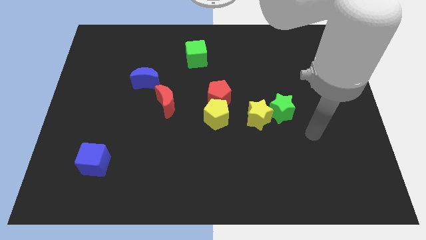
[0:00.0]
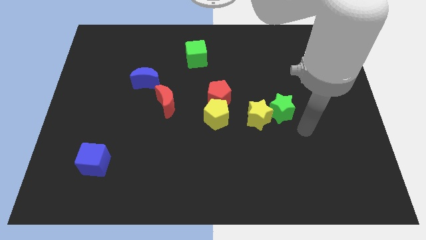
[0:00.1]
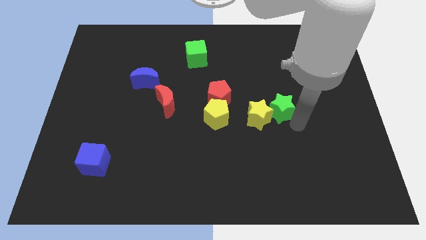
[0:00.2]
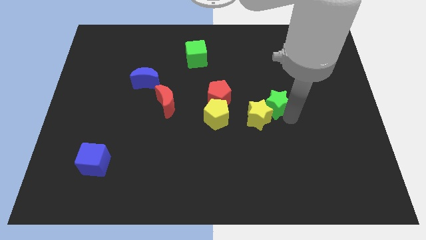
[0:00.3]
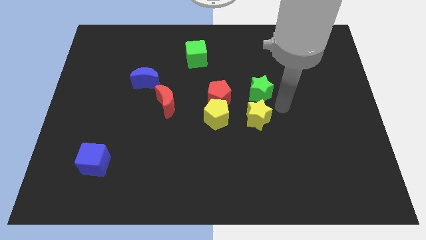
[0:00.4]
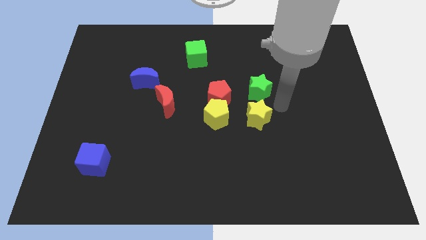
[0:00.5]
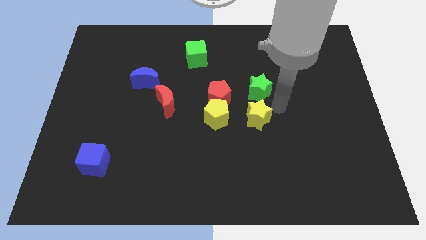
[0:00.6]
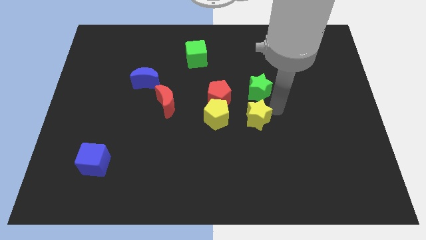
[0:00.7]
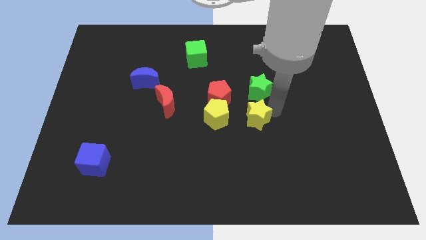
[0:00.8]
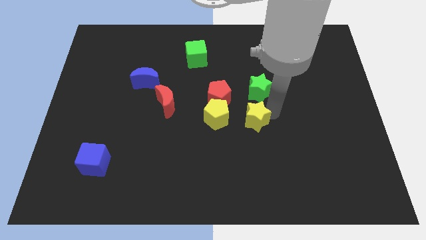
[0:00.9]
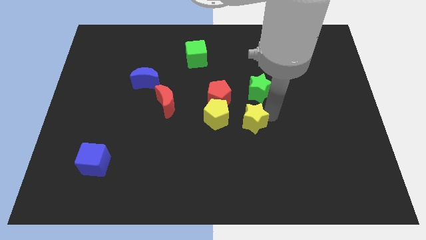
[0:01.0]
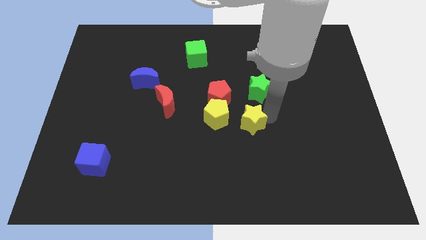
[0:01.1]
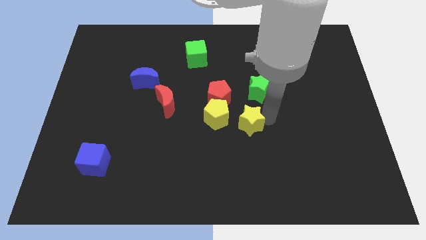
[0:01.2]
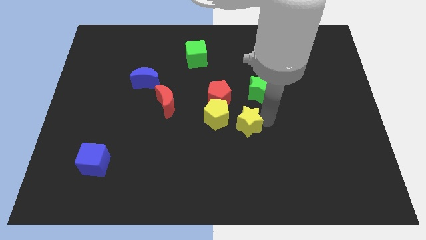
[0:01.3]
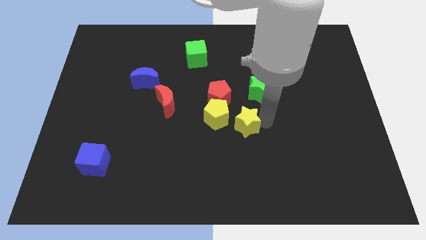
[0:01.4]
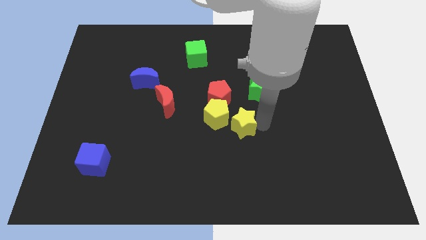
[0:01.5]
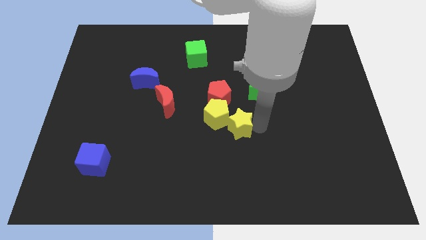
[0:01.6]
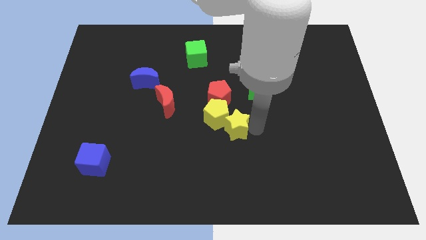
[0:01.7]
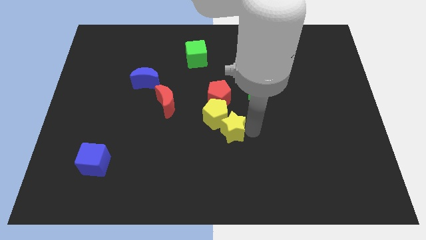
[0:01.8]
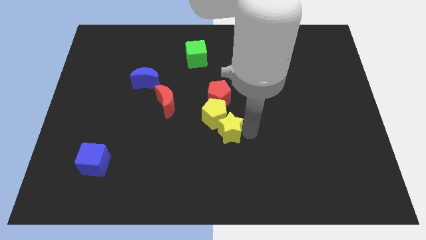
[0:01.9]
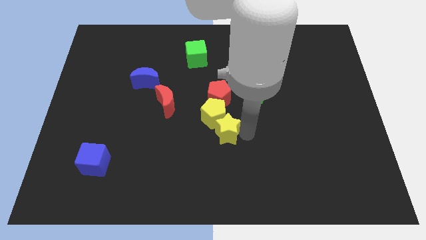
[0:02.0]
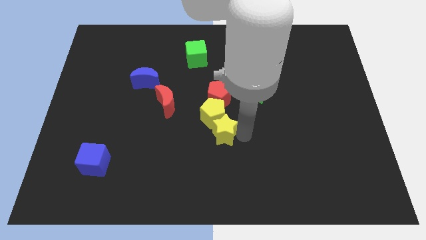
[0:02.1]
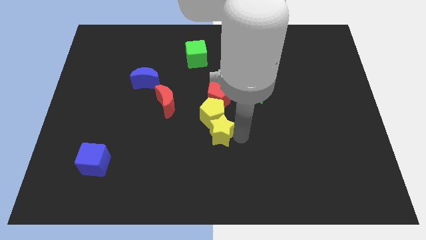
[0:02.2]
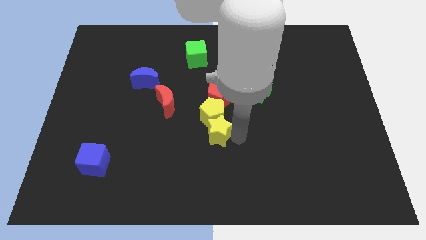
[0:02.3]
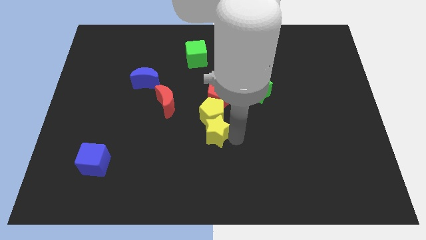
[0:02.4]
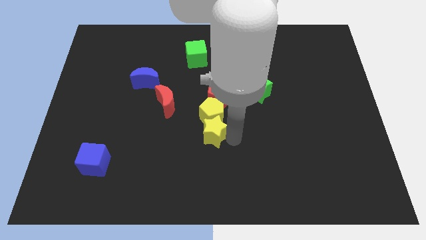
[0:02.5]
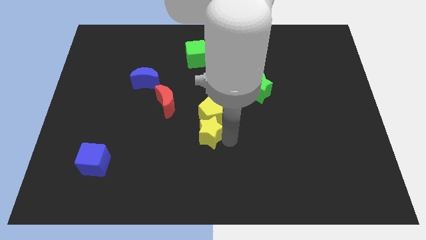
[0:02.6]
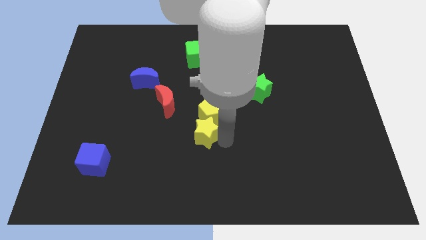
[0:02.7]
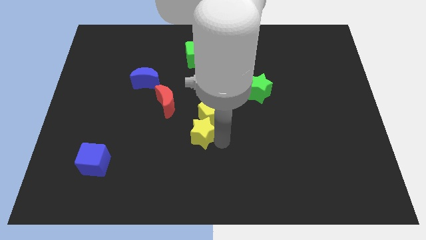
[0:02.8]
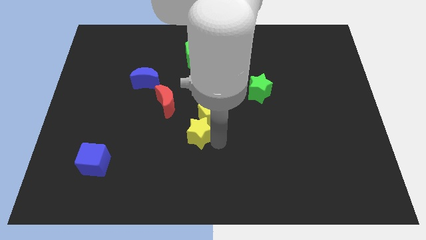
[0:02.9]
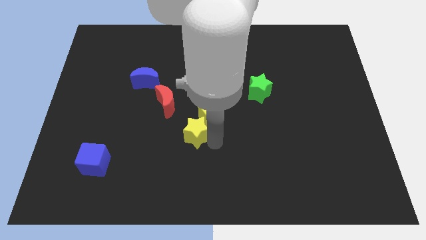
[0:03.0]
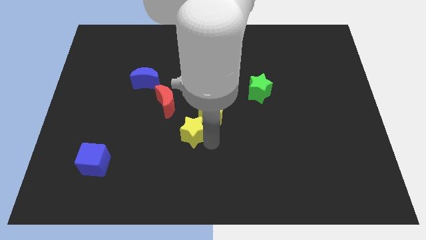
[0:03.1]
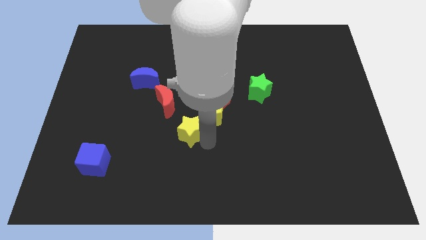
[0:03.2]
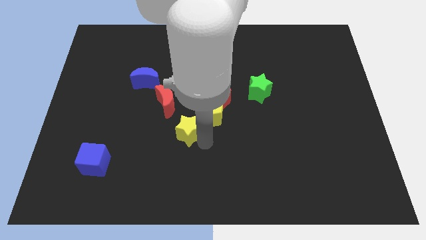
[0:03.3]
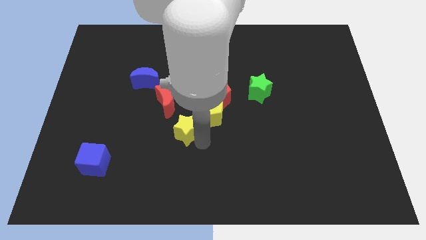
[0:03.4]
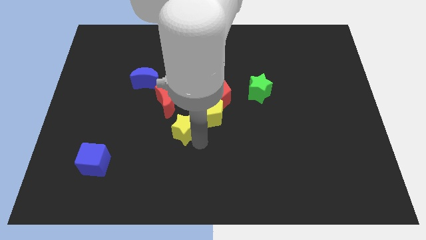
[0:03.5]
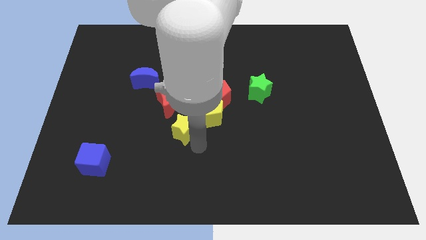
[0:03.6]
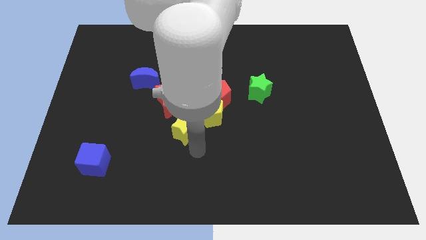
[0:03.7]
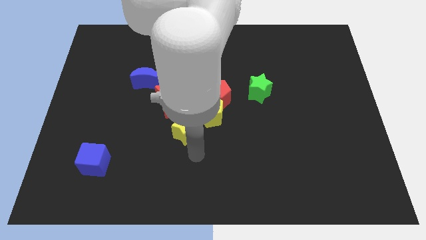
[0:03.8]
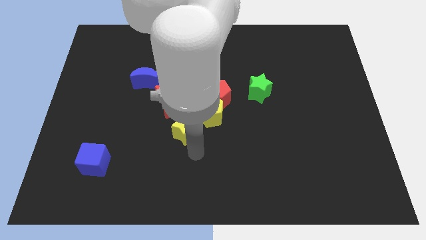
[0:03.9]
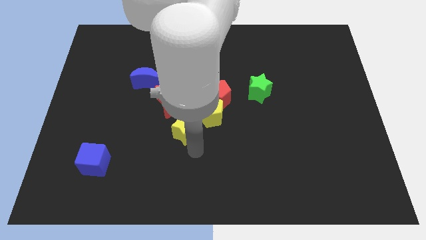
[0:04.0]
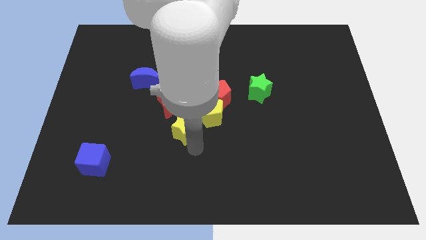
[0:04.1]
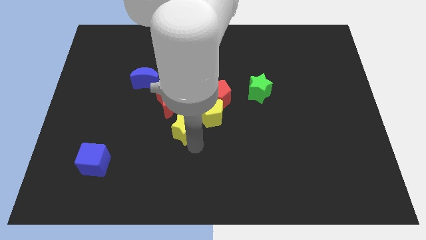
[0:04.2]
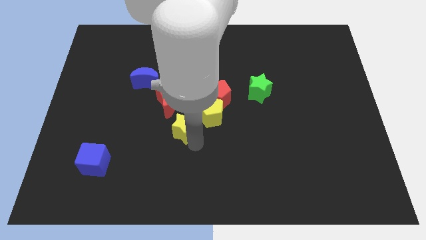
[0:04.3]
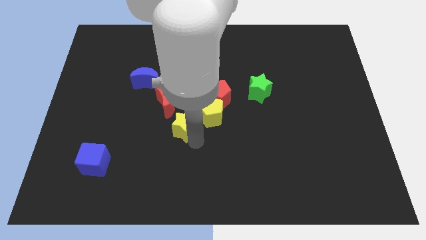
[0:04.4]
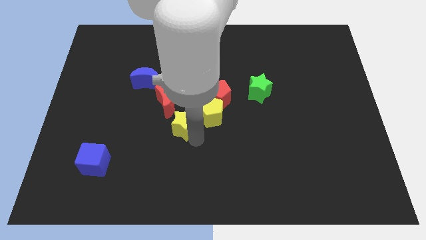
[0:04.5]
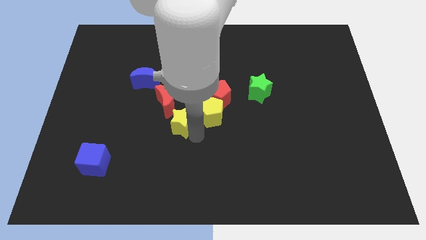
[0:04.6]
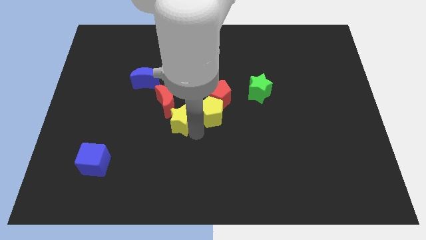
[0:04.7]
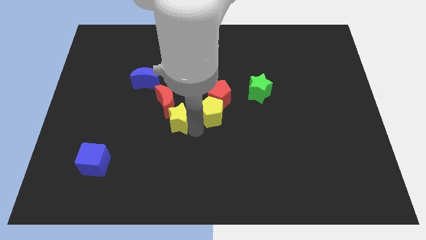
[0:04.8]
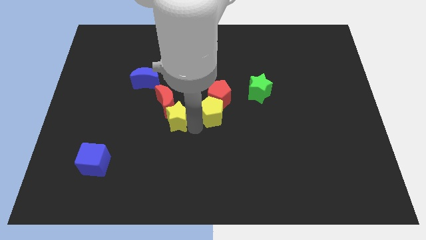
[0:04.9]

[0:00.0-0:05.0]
push the yellow star close to the red moon

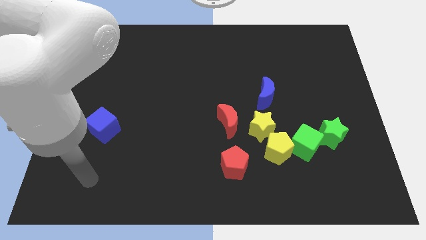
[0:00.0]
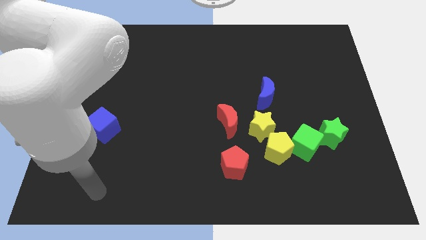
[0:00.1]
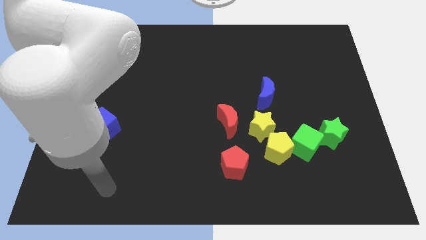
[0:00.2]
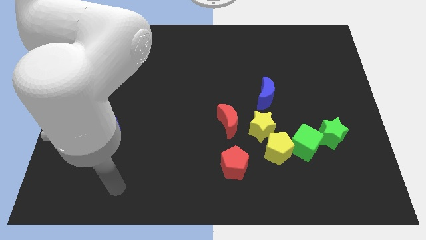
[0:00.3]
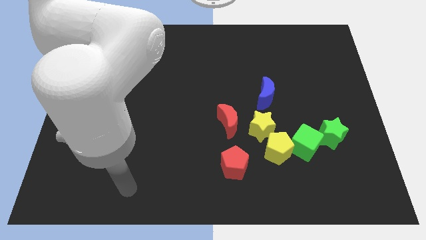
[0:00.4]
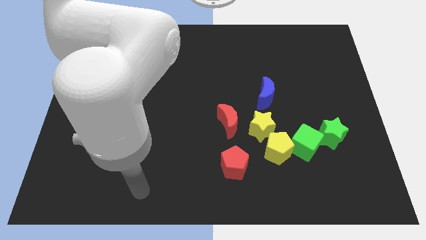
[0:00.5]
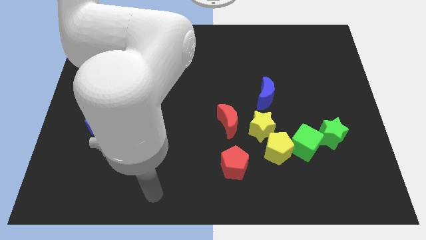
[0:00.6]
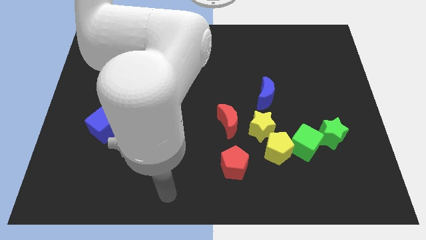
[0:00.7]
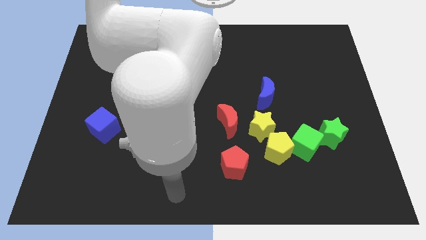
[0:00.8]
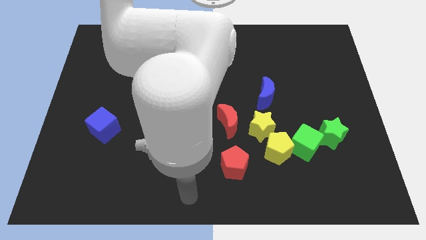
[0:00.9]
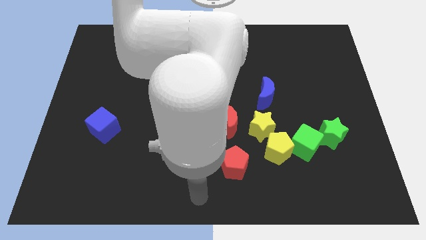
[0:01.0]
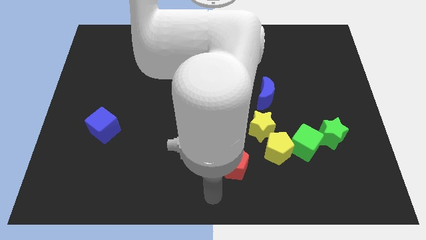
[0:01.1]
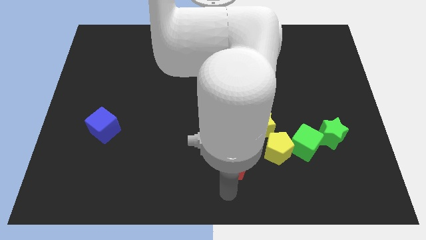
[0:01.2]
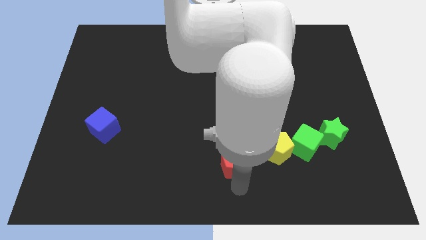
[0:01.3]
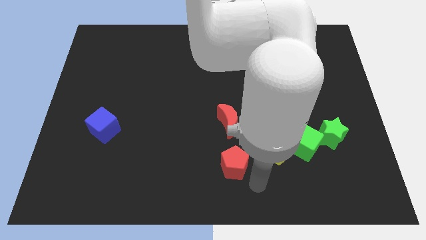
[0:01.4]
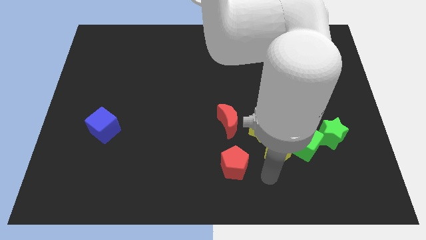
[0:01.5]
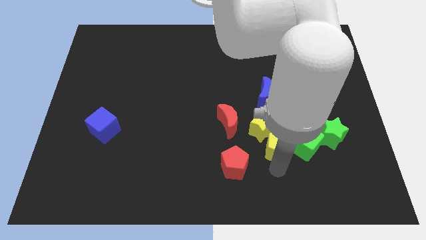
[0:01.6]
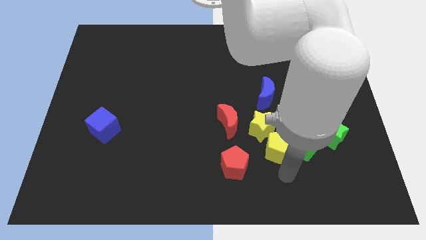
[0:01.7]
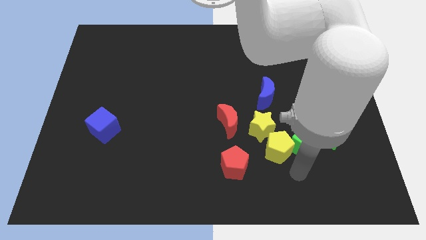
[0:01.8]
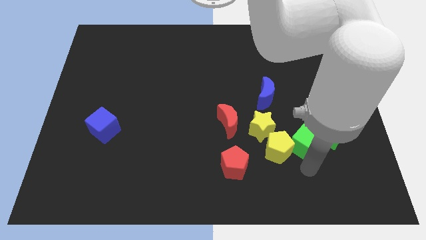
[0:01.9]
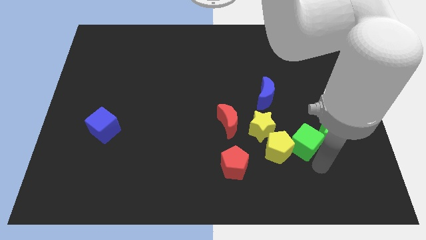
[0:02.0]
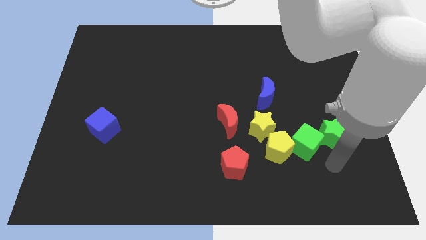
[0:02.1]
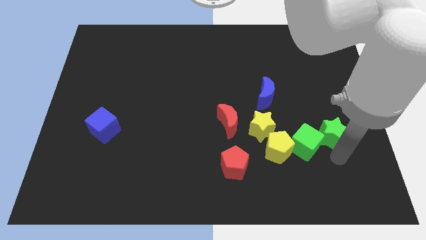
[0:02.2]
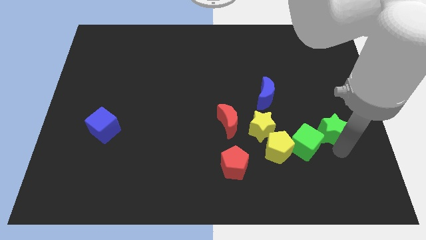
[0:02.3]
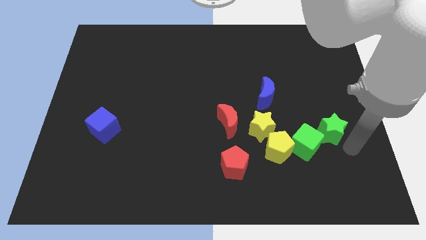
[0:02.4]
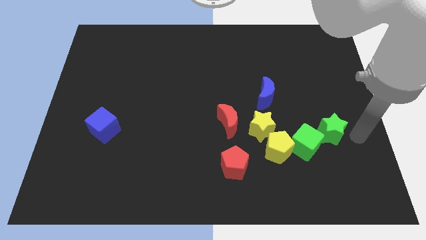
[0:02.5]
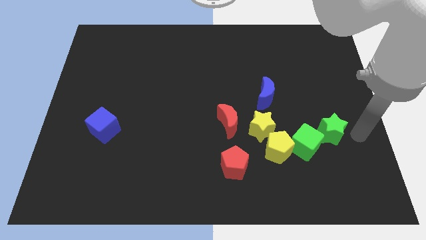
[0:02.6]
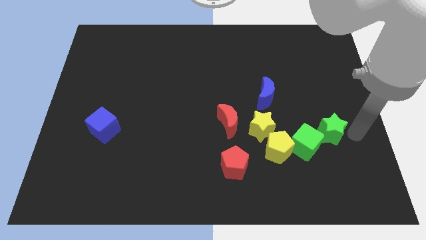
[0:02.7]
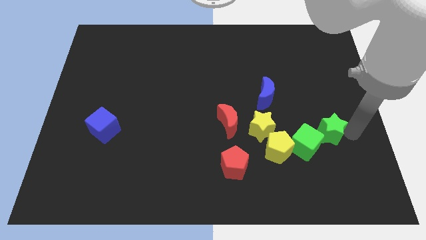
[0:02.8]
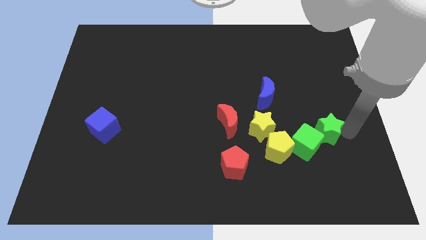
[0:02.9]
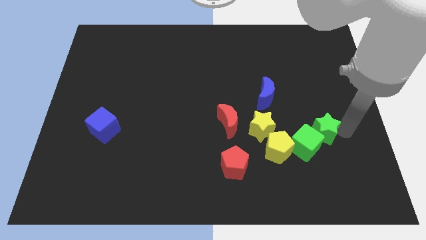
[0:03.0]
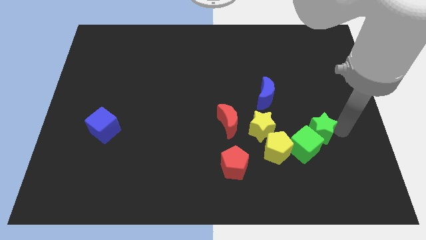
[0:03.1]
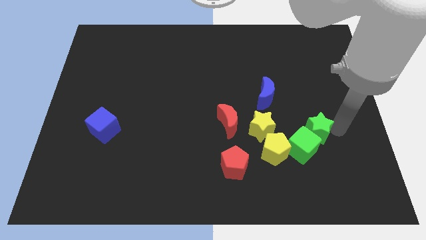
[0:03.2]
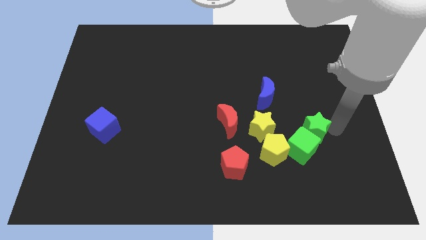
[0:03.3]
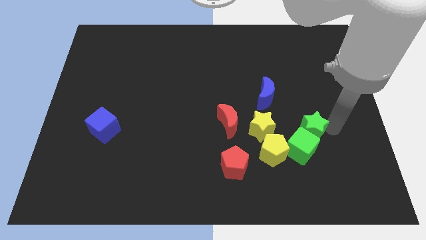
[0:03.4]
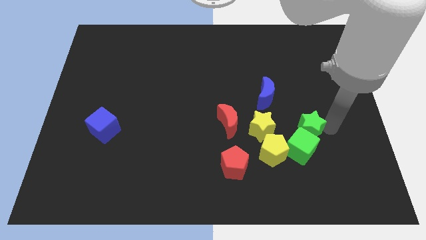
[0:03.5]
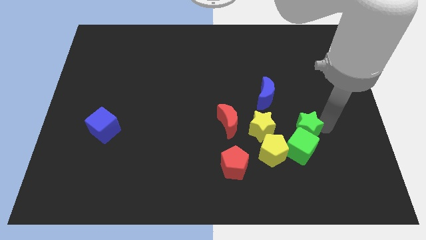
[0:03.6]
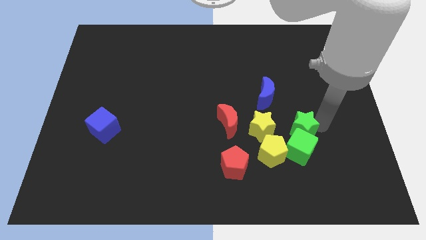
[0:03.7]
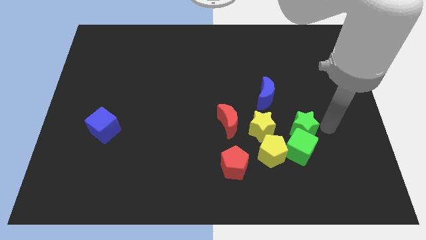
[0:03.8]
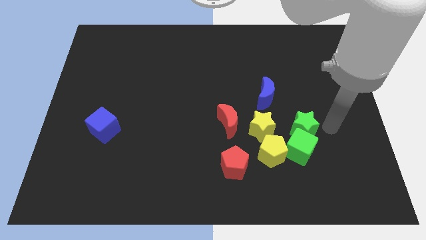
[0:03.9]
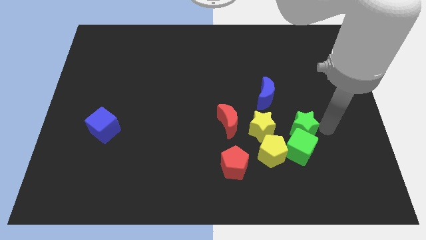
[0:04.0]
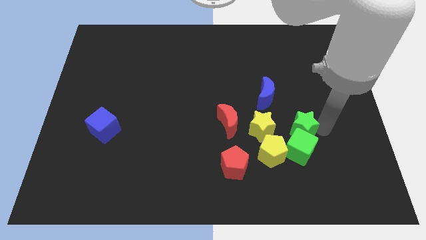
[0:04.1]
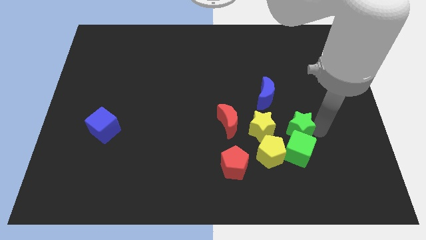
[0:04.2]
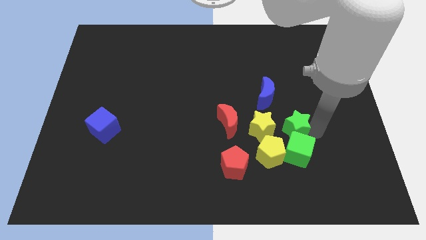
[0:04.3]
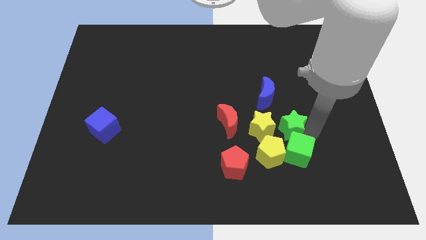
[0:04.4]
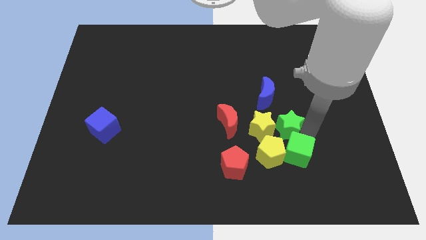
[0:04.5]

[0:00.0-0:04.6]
move the green star towards the yellow star
